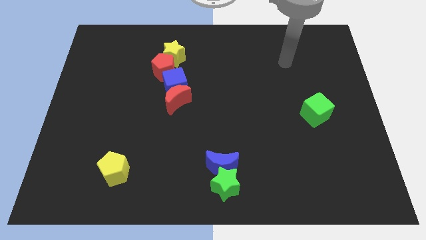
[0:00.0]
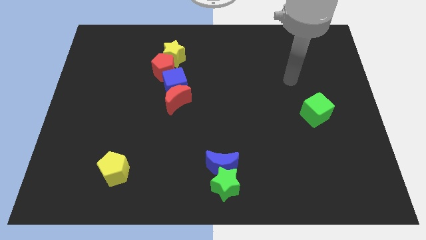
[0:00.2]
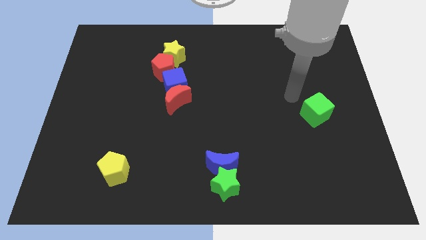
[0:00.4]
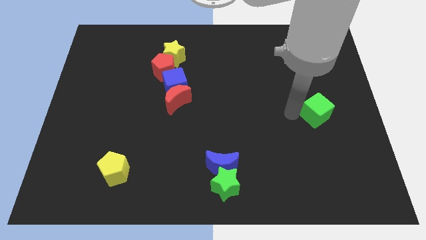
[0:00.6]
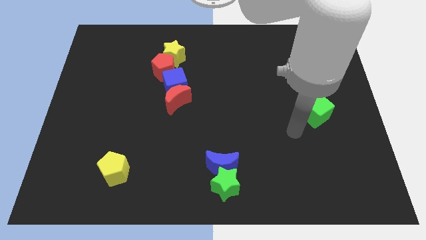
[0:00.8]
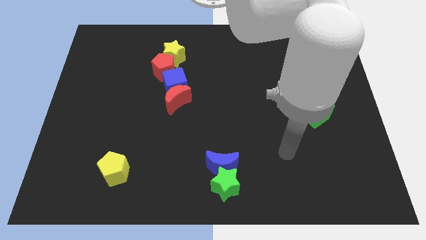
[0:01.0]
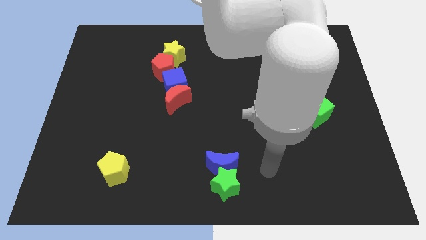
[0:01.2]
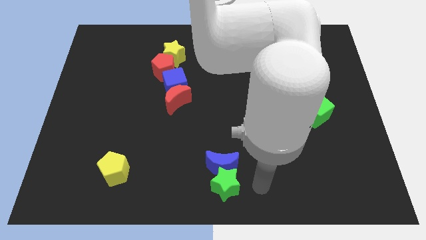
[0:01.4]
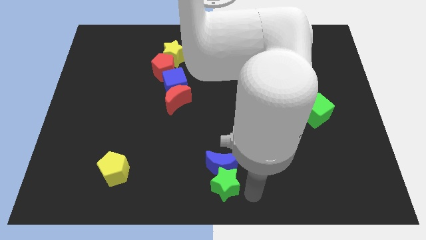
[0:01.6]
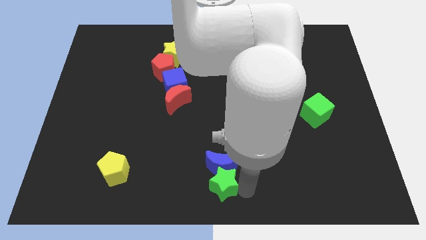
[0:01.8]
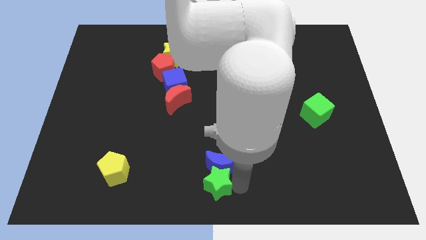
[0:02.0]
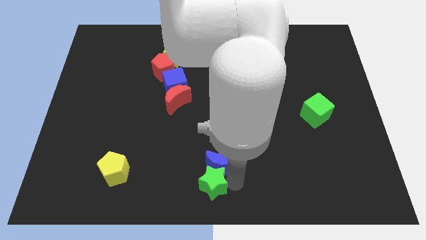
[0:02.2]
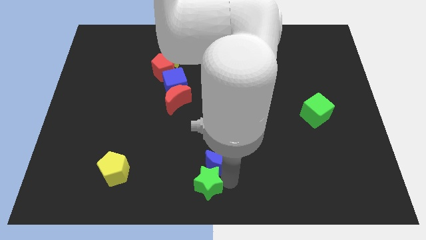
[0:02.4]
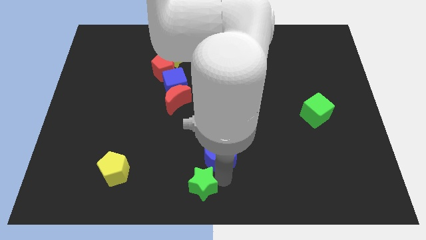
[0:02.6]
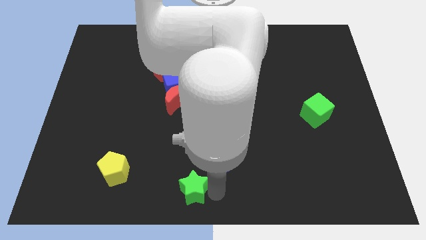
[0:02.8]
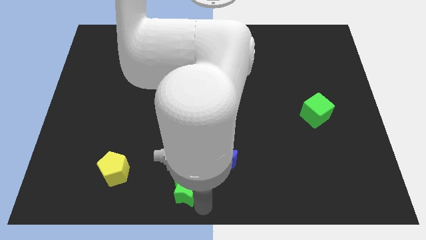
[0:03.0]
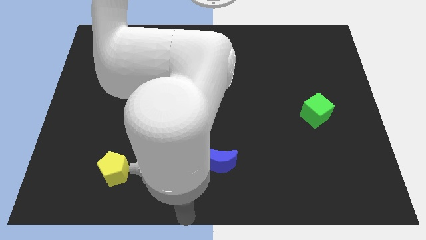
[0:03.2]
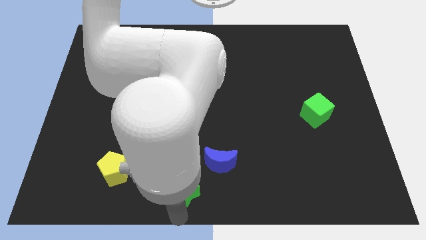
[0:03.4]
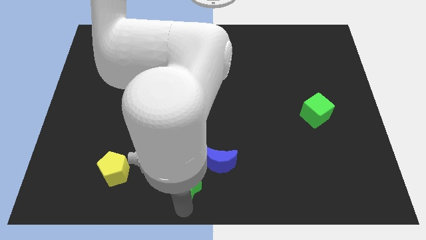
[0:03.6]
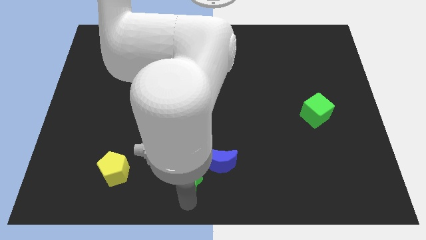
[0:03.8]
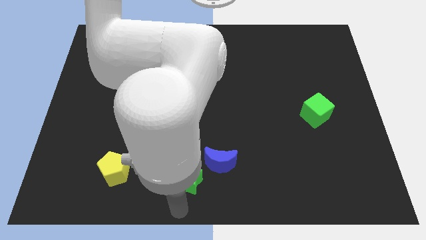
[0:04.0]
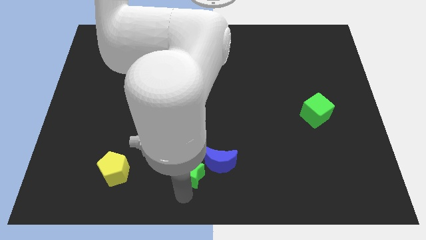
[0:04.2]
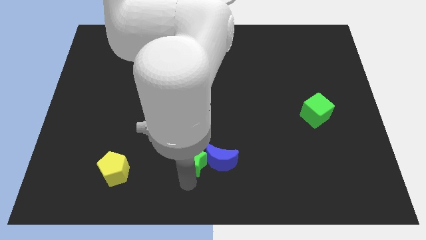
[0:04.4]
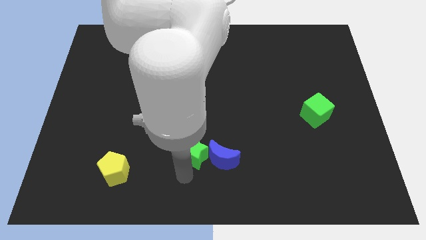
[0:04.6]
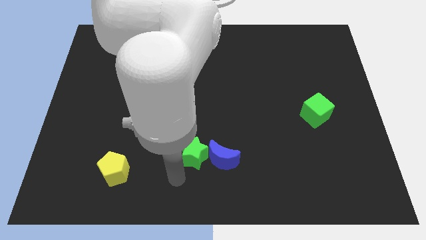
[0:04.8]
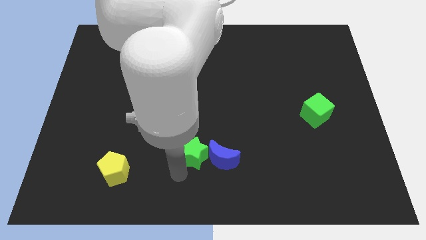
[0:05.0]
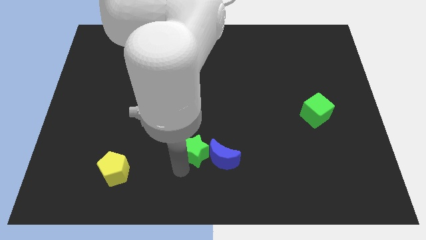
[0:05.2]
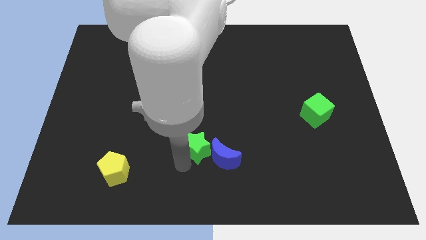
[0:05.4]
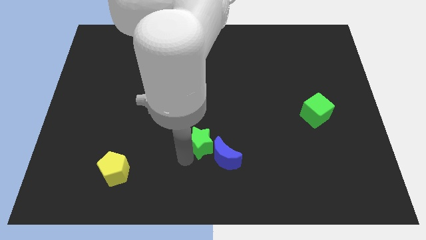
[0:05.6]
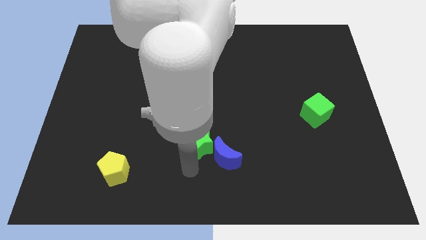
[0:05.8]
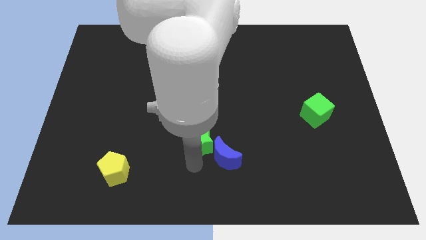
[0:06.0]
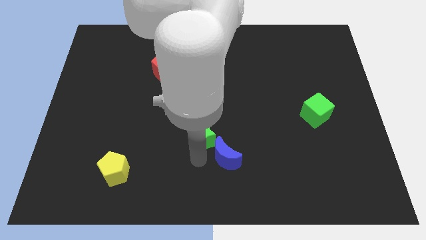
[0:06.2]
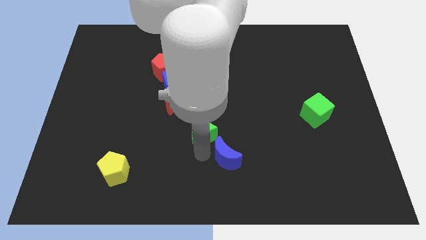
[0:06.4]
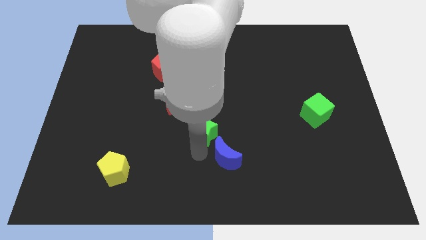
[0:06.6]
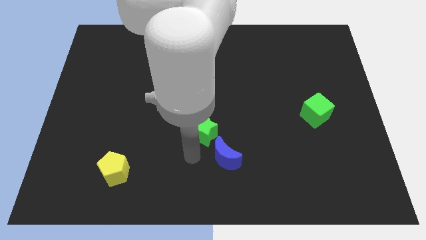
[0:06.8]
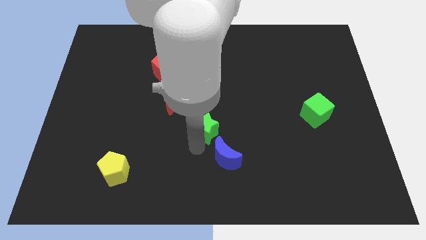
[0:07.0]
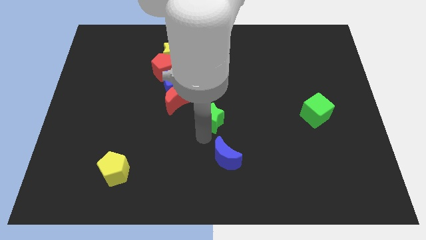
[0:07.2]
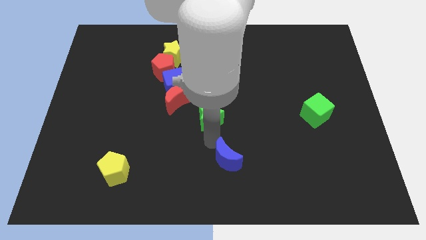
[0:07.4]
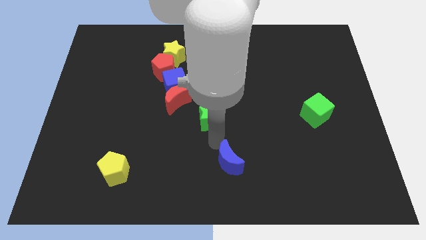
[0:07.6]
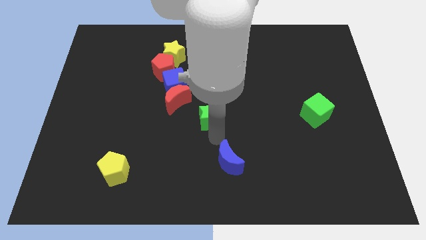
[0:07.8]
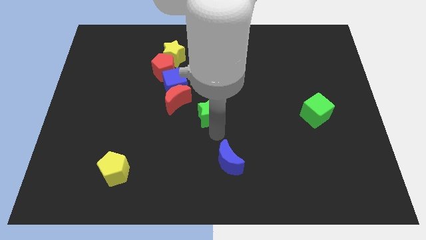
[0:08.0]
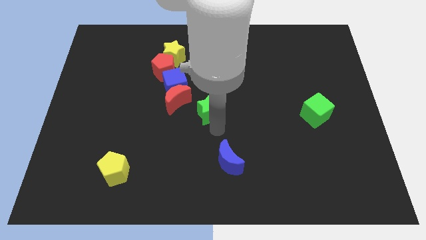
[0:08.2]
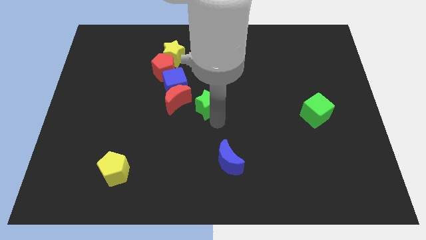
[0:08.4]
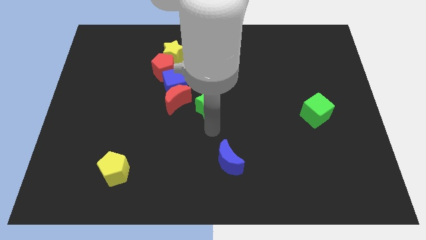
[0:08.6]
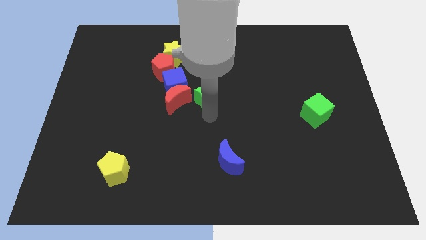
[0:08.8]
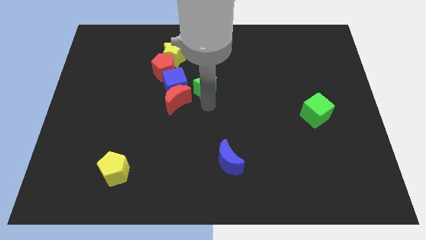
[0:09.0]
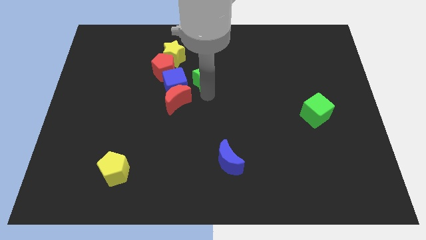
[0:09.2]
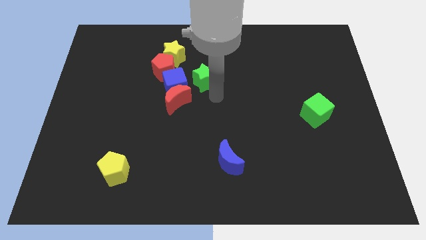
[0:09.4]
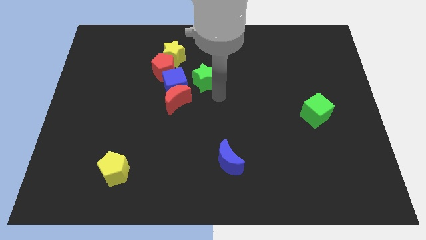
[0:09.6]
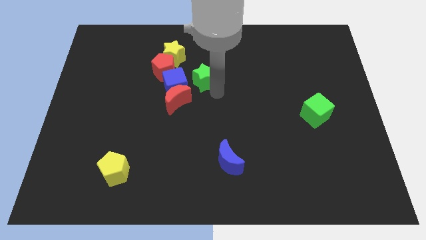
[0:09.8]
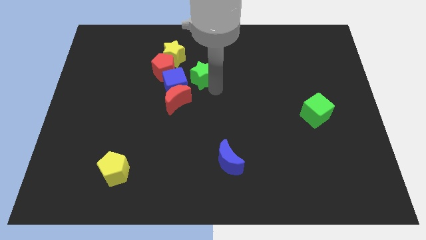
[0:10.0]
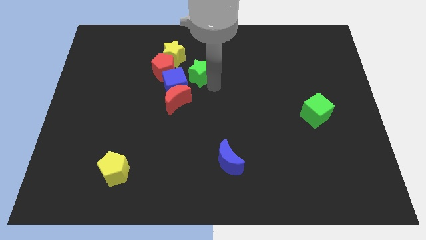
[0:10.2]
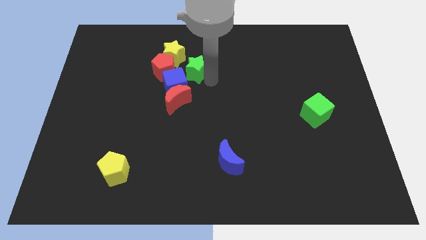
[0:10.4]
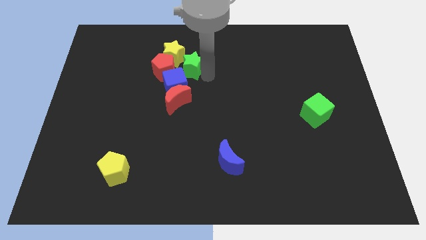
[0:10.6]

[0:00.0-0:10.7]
push the green star towards the yellow star

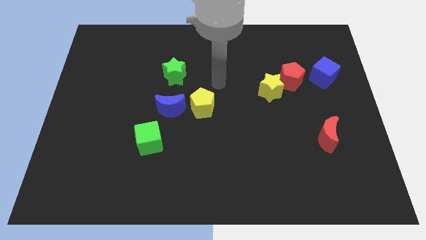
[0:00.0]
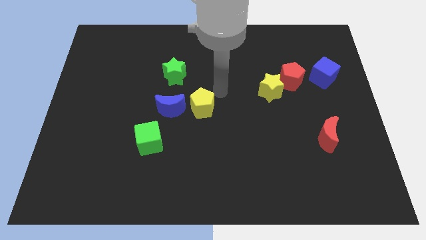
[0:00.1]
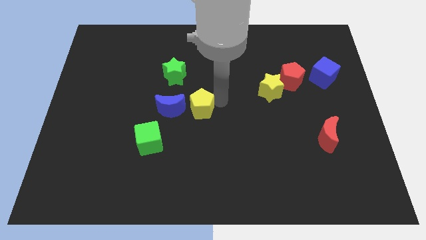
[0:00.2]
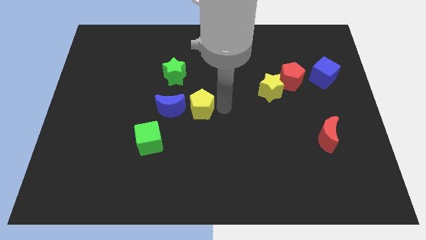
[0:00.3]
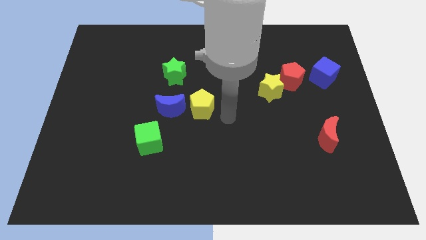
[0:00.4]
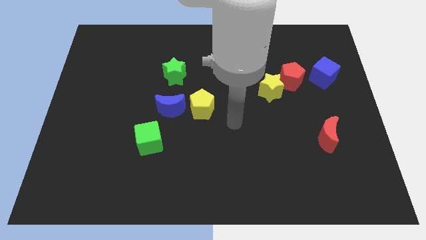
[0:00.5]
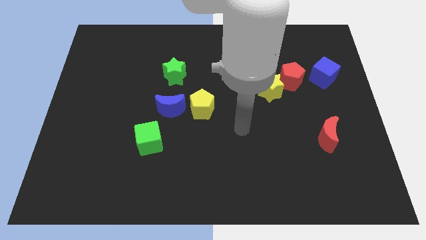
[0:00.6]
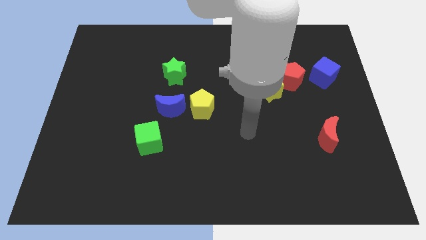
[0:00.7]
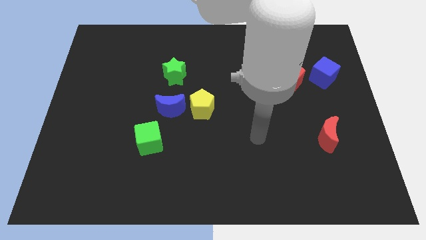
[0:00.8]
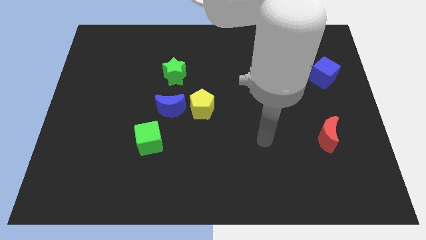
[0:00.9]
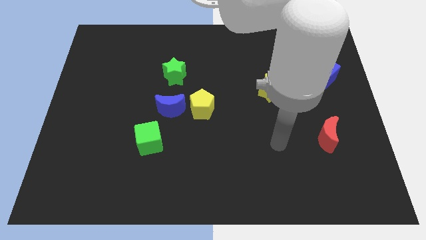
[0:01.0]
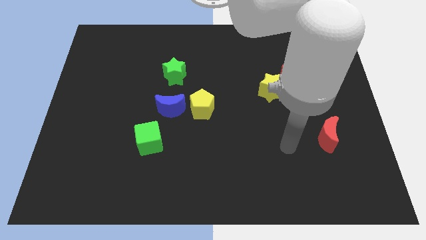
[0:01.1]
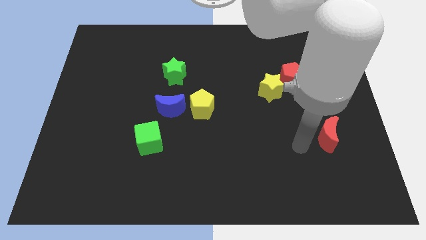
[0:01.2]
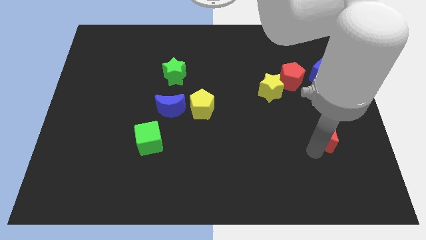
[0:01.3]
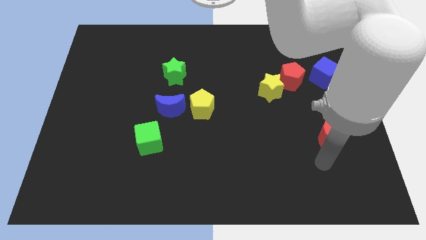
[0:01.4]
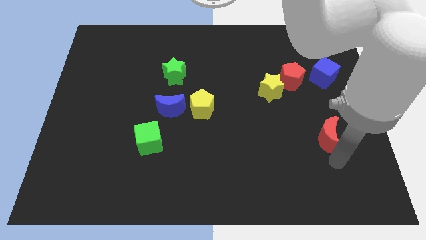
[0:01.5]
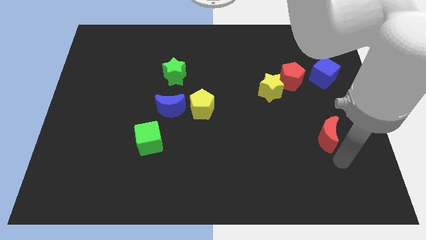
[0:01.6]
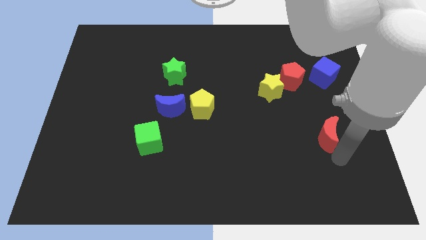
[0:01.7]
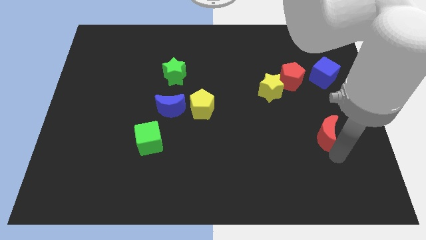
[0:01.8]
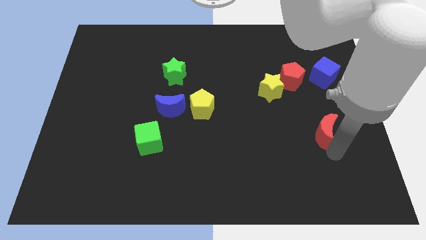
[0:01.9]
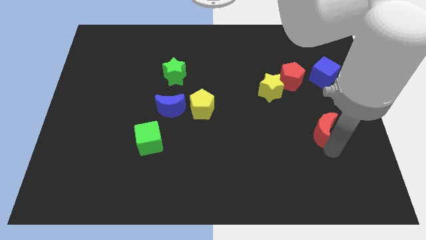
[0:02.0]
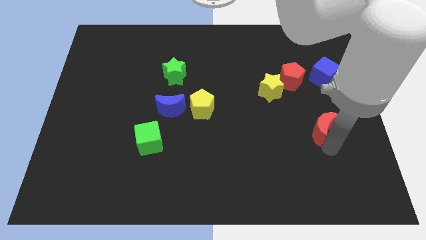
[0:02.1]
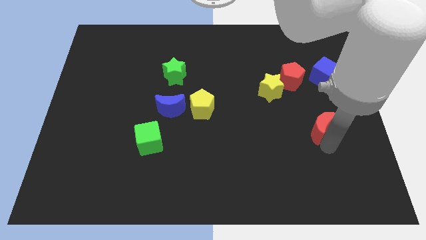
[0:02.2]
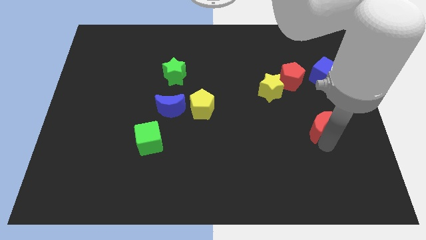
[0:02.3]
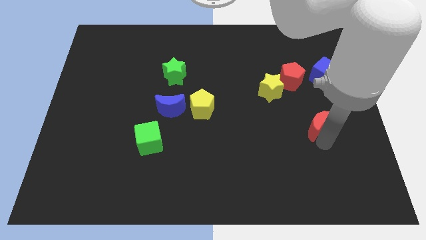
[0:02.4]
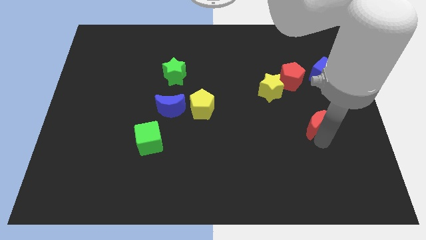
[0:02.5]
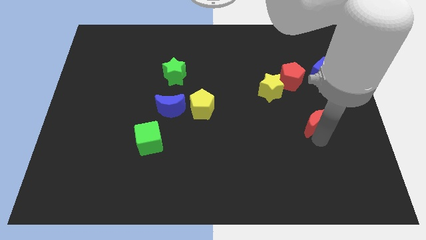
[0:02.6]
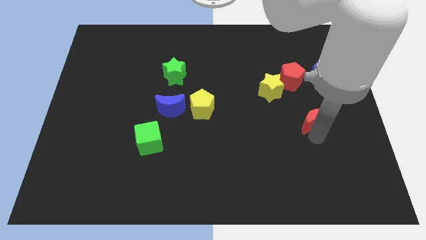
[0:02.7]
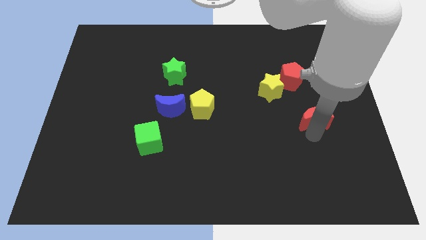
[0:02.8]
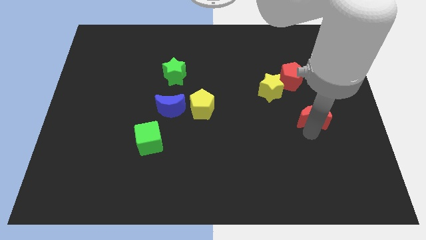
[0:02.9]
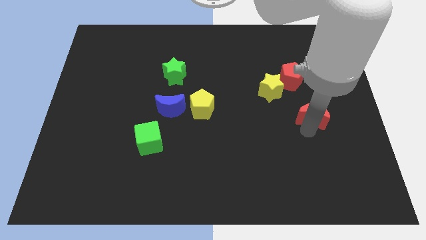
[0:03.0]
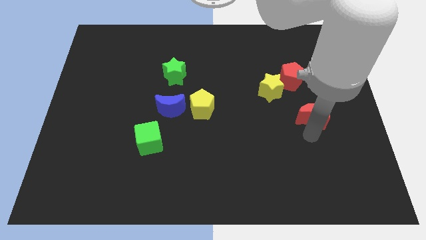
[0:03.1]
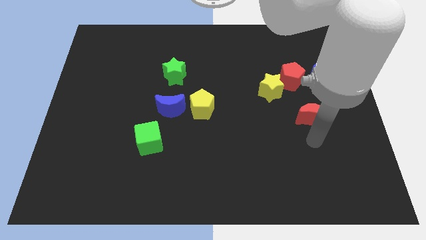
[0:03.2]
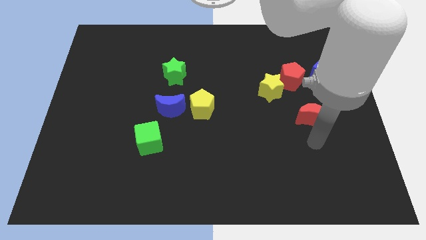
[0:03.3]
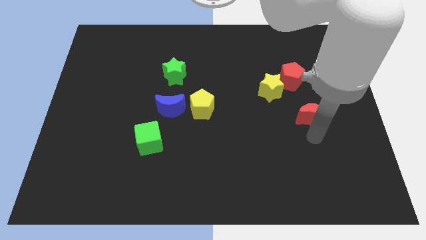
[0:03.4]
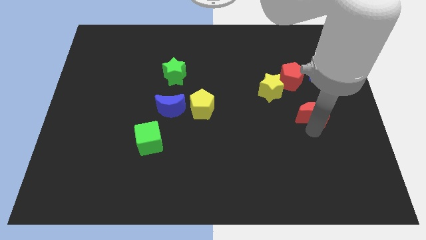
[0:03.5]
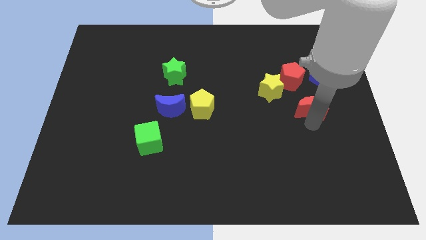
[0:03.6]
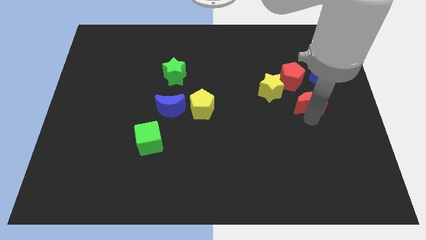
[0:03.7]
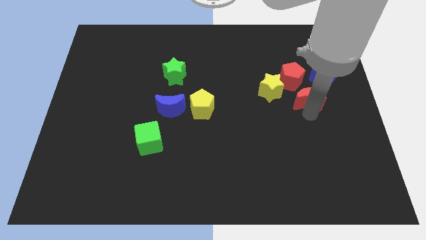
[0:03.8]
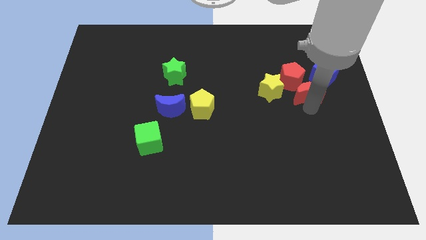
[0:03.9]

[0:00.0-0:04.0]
push the red moon next to the red pentagon
